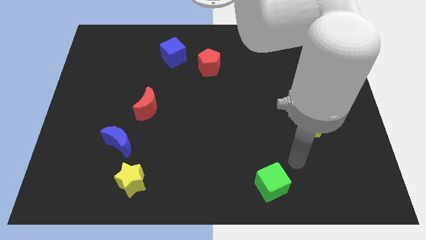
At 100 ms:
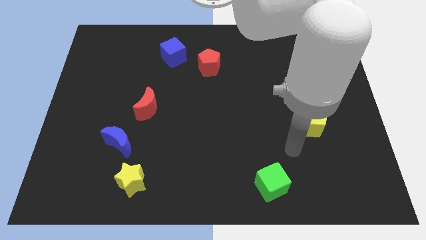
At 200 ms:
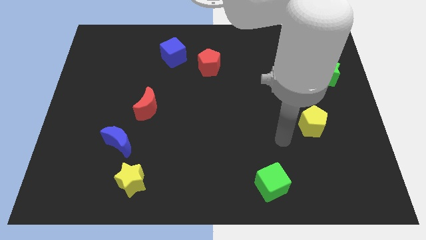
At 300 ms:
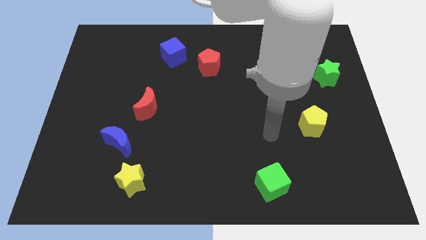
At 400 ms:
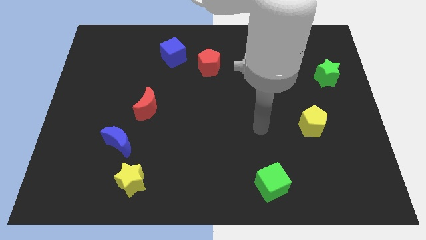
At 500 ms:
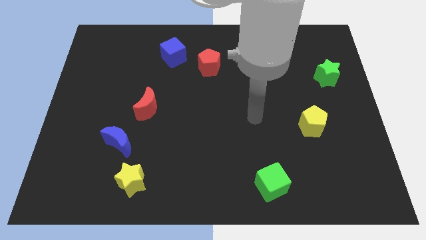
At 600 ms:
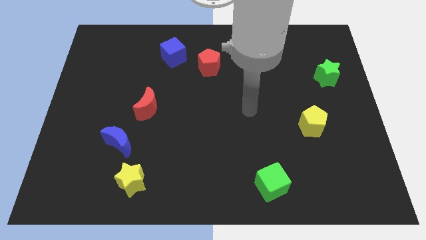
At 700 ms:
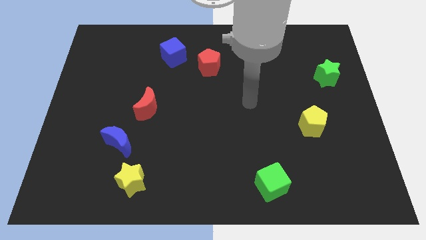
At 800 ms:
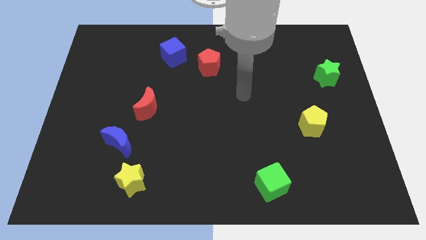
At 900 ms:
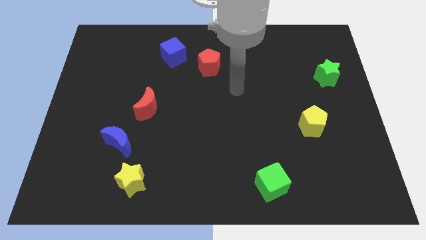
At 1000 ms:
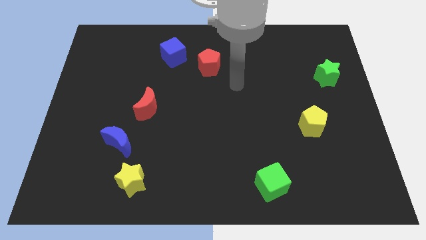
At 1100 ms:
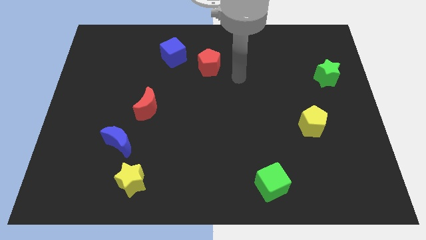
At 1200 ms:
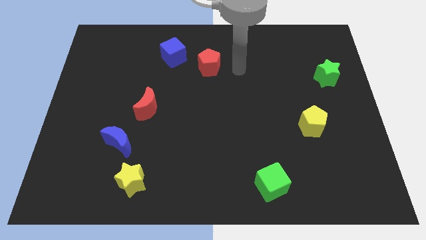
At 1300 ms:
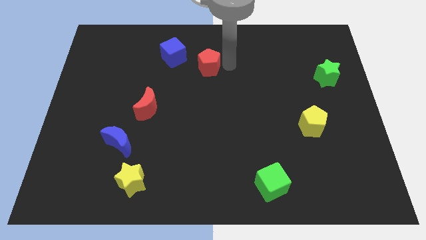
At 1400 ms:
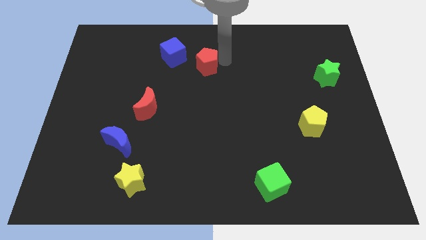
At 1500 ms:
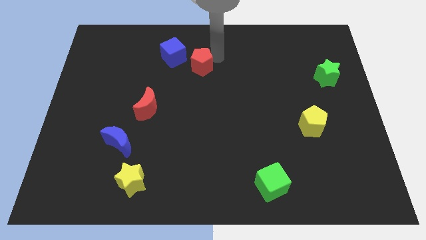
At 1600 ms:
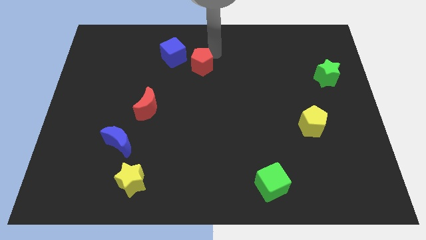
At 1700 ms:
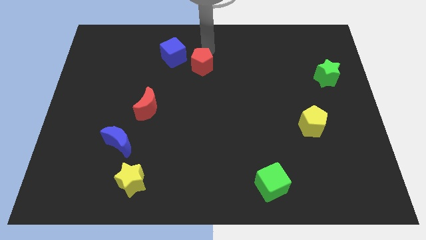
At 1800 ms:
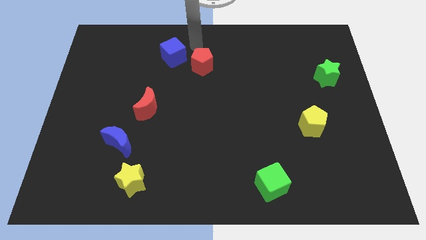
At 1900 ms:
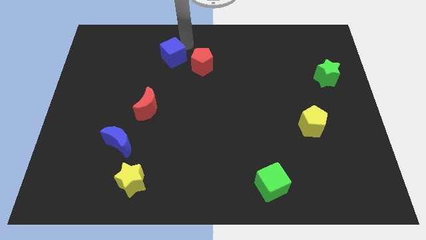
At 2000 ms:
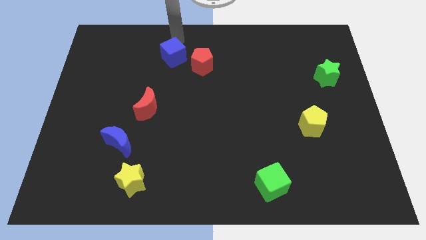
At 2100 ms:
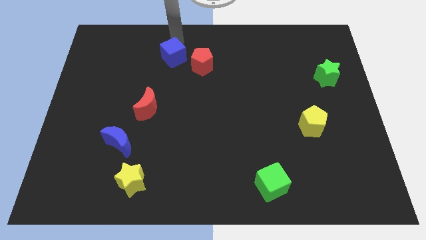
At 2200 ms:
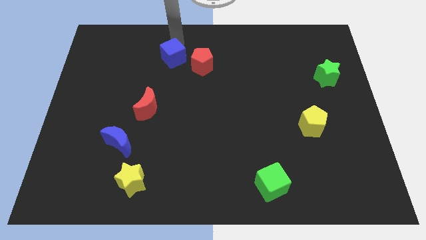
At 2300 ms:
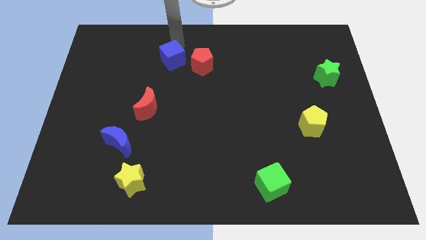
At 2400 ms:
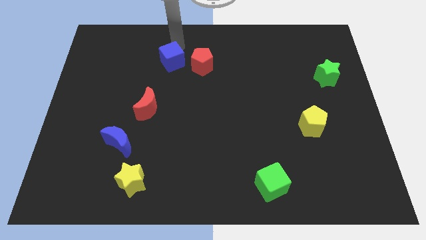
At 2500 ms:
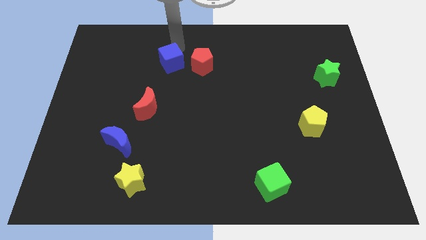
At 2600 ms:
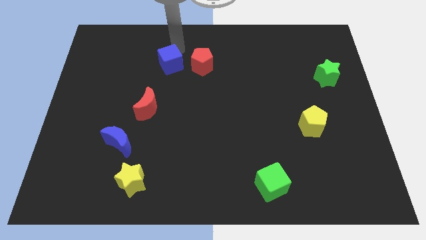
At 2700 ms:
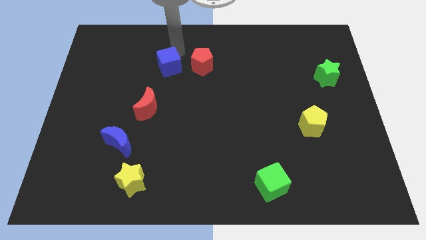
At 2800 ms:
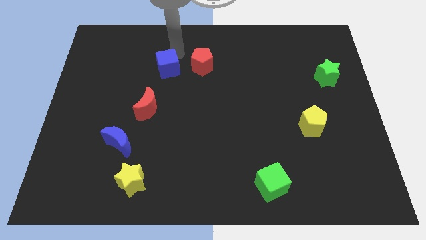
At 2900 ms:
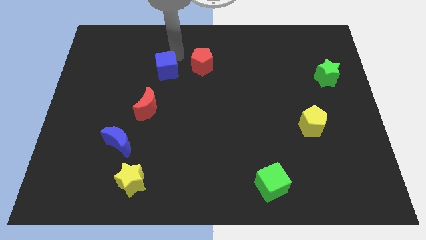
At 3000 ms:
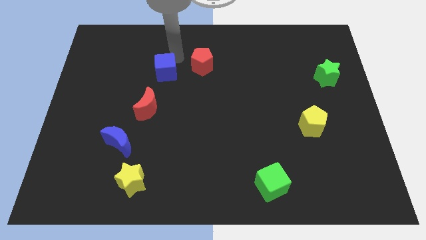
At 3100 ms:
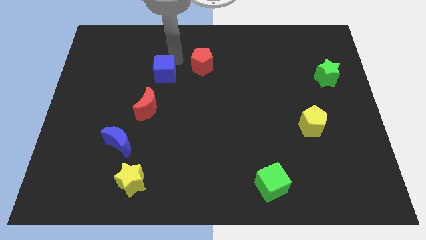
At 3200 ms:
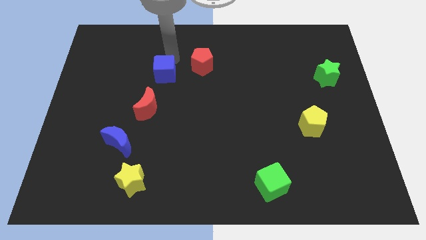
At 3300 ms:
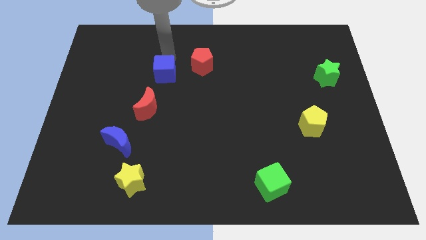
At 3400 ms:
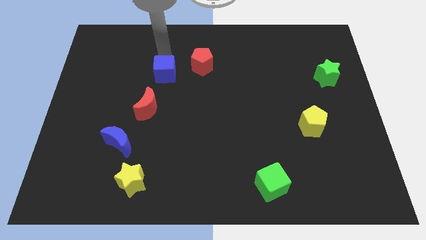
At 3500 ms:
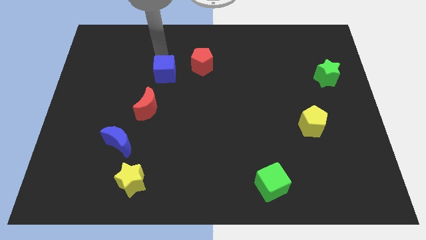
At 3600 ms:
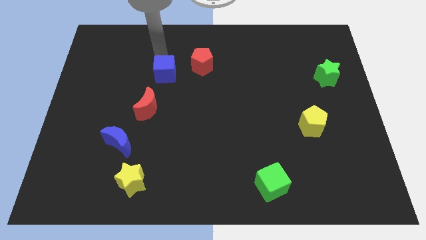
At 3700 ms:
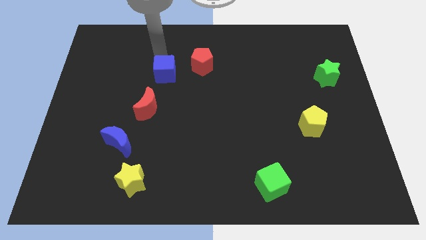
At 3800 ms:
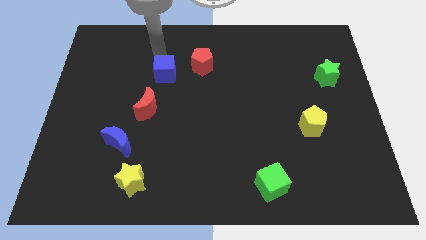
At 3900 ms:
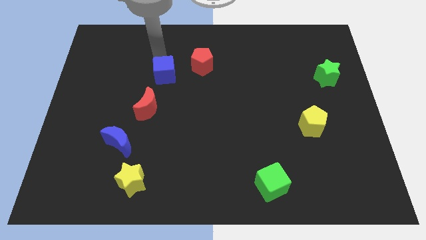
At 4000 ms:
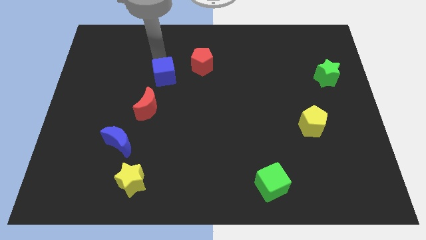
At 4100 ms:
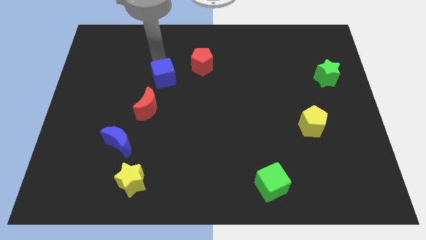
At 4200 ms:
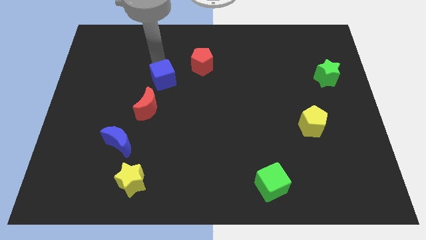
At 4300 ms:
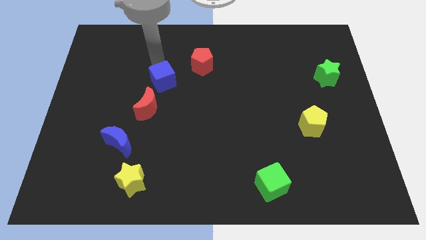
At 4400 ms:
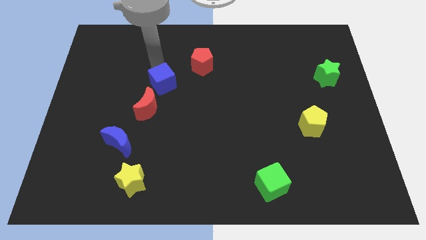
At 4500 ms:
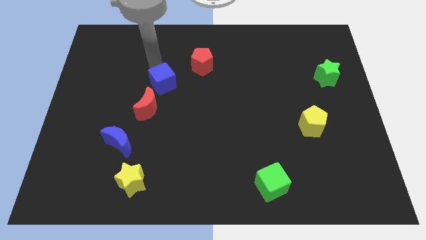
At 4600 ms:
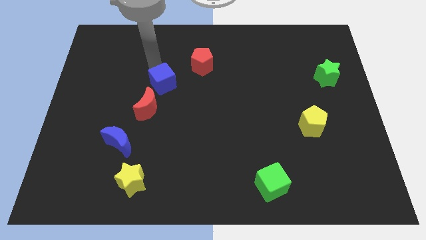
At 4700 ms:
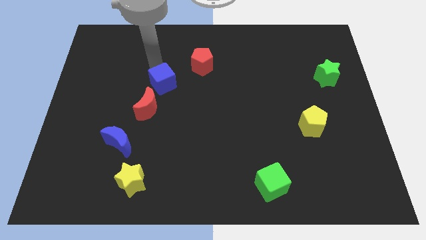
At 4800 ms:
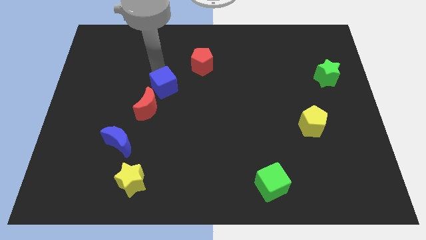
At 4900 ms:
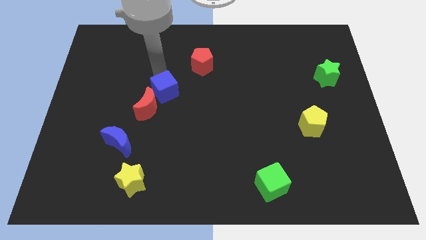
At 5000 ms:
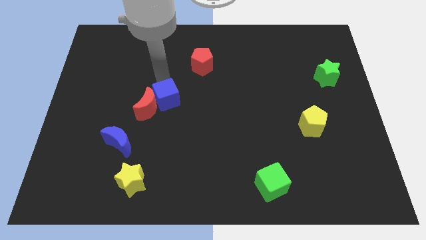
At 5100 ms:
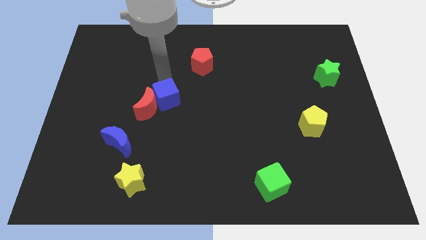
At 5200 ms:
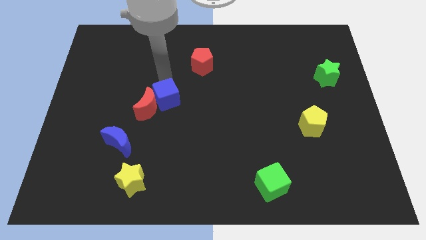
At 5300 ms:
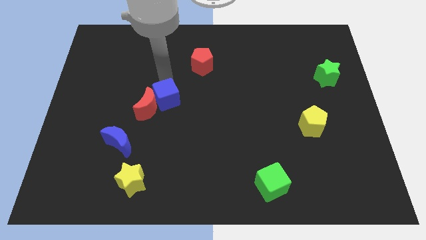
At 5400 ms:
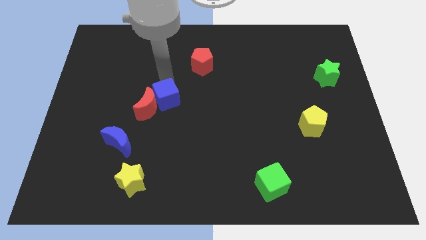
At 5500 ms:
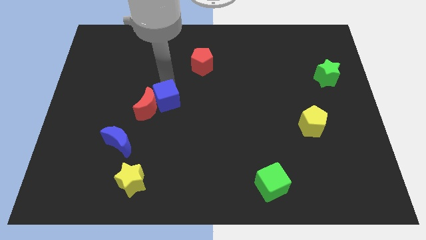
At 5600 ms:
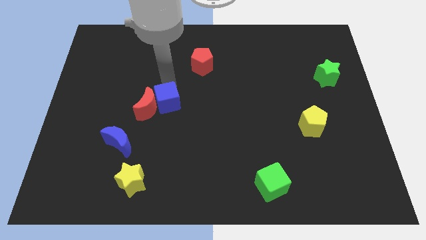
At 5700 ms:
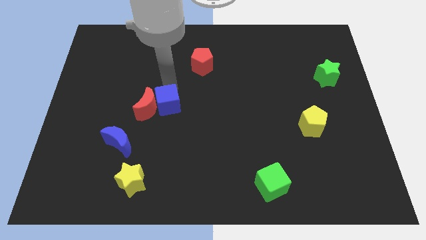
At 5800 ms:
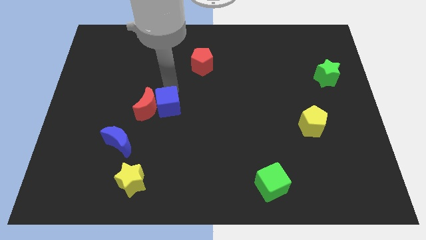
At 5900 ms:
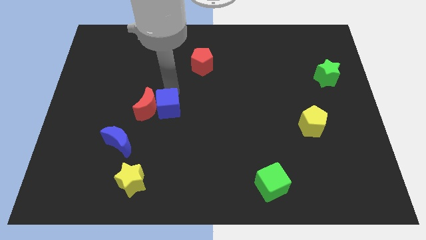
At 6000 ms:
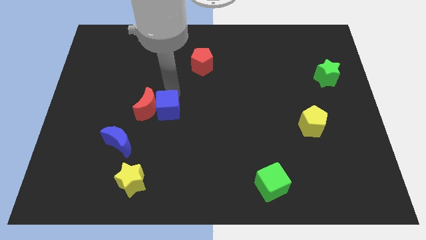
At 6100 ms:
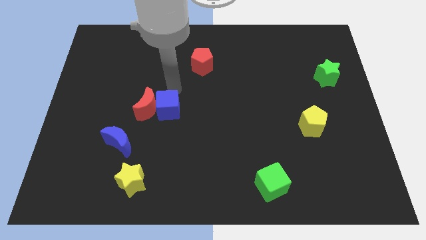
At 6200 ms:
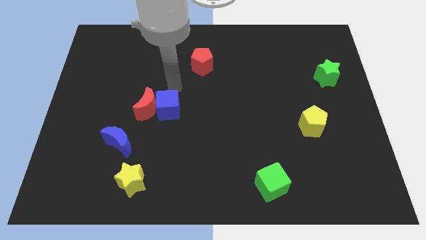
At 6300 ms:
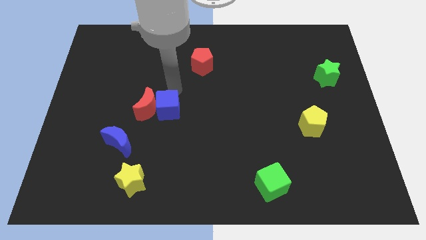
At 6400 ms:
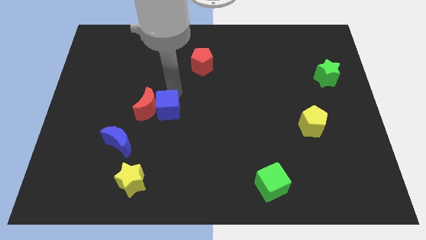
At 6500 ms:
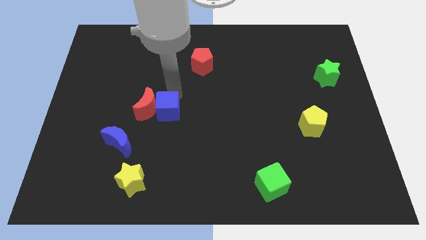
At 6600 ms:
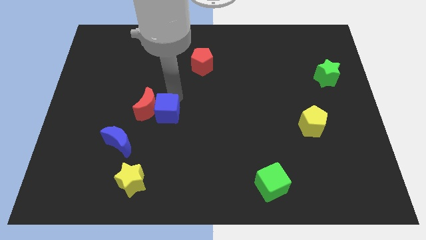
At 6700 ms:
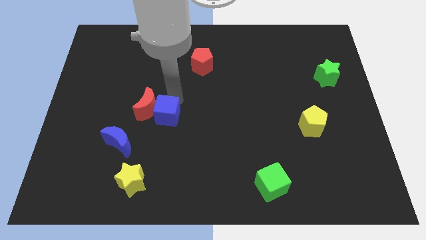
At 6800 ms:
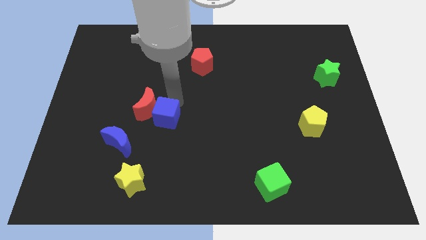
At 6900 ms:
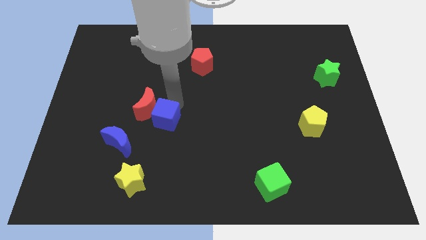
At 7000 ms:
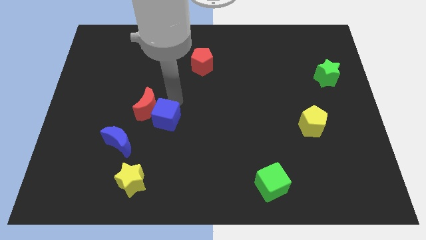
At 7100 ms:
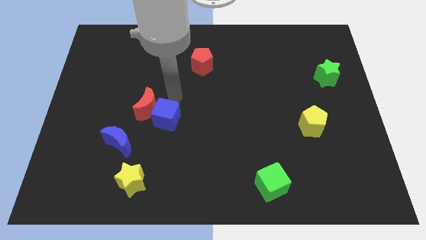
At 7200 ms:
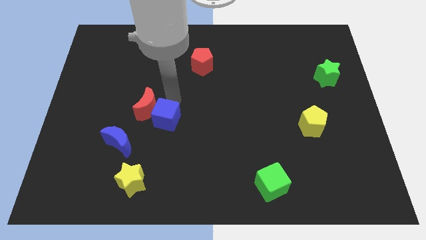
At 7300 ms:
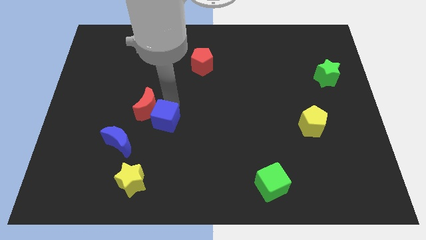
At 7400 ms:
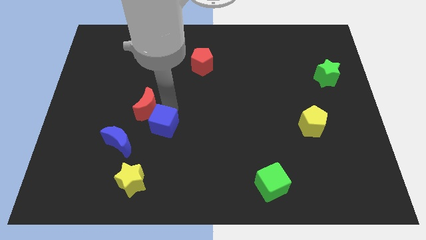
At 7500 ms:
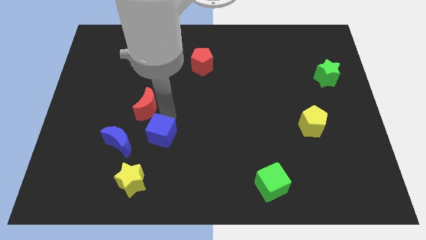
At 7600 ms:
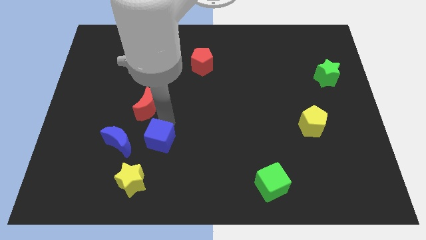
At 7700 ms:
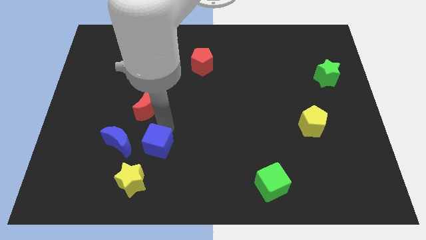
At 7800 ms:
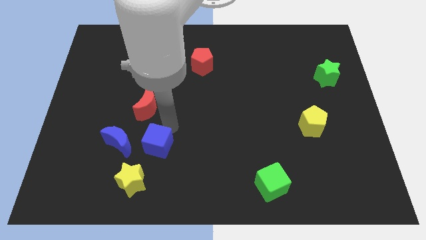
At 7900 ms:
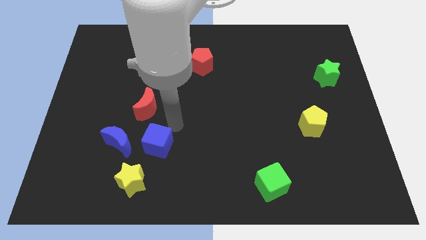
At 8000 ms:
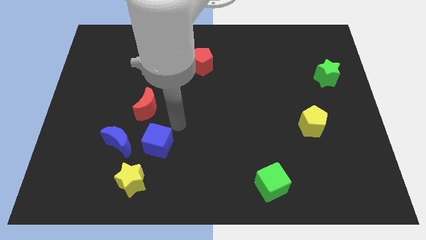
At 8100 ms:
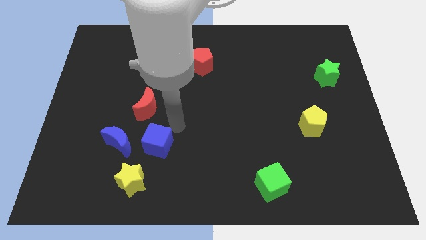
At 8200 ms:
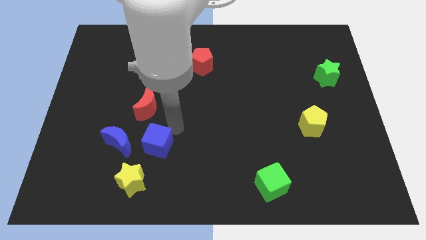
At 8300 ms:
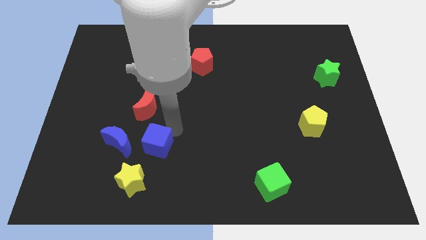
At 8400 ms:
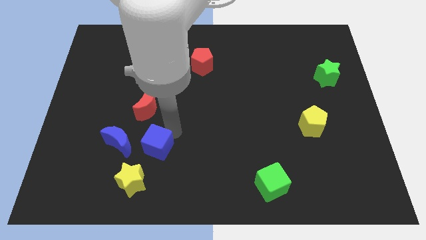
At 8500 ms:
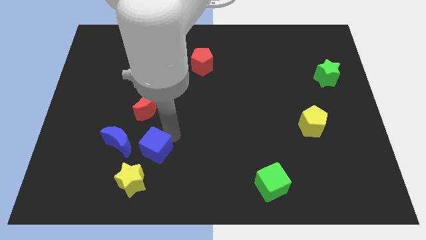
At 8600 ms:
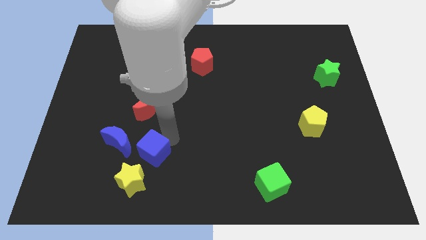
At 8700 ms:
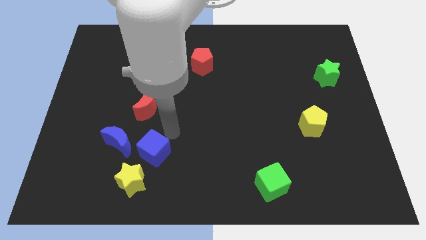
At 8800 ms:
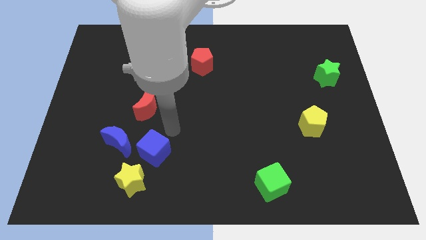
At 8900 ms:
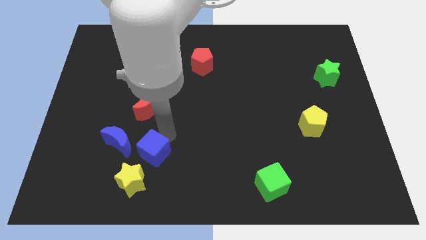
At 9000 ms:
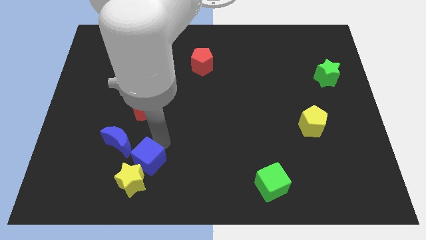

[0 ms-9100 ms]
move the blue cube close to the yellow star
